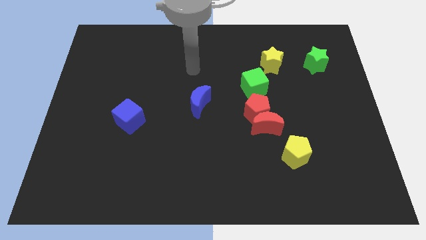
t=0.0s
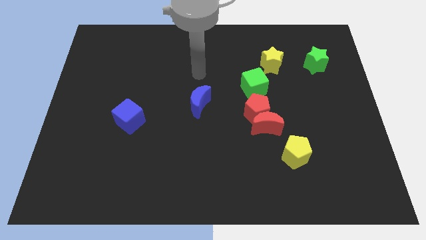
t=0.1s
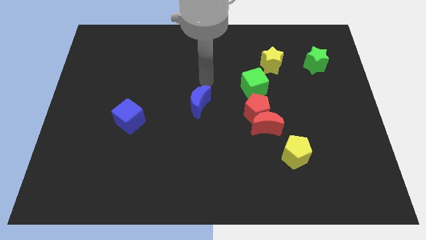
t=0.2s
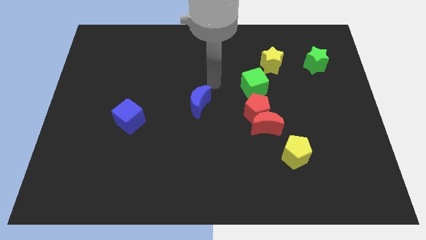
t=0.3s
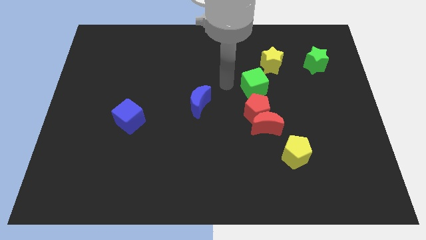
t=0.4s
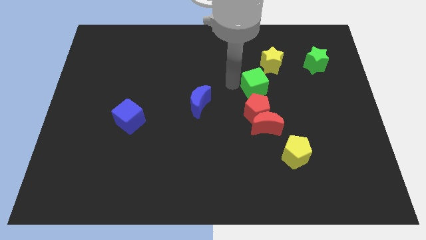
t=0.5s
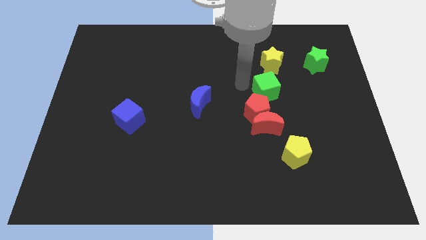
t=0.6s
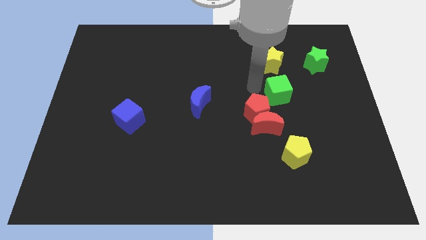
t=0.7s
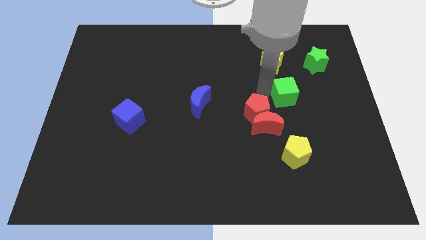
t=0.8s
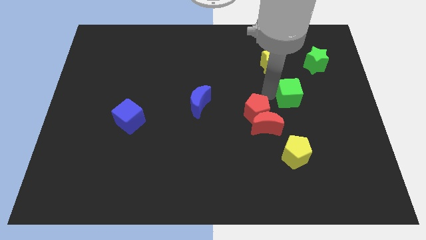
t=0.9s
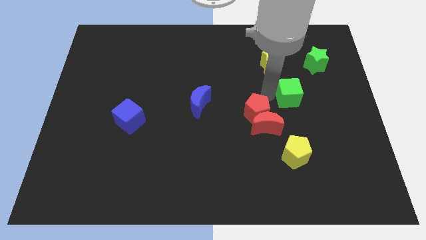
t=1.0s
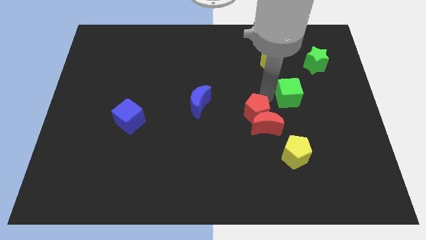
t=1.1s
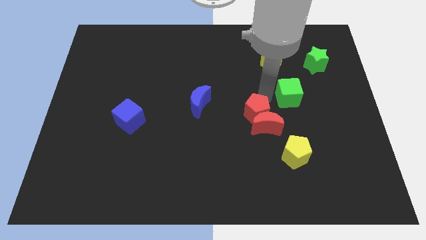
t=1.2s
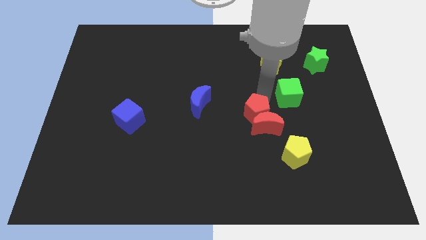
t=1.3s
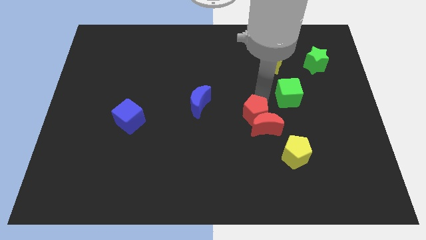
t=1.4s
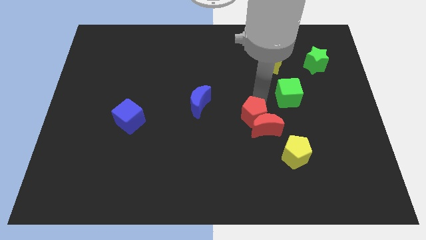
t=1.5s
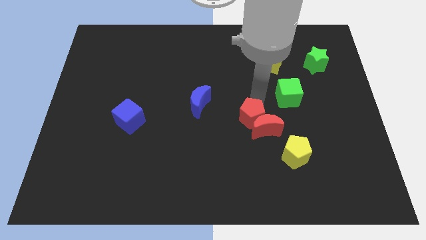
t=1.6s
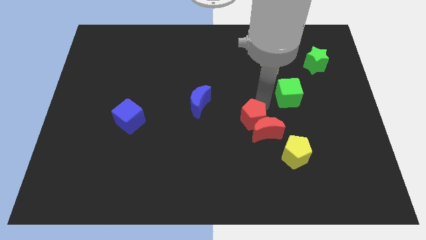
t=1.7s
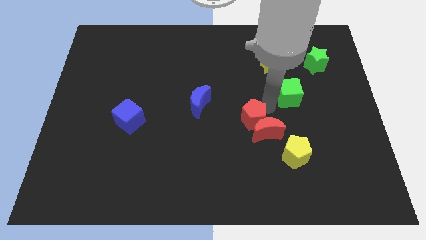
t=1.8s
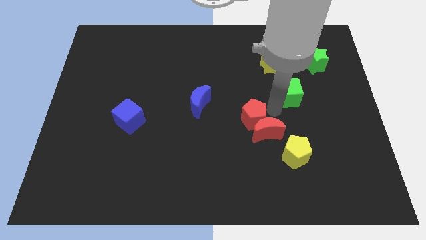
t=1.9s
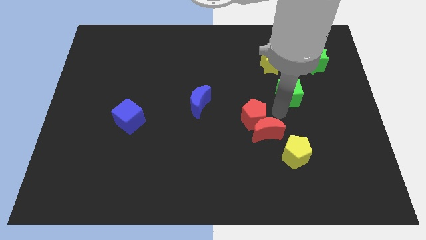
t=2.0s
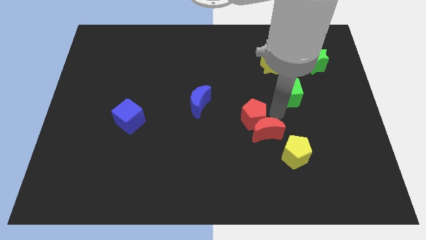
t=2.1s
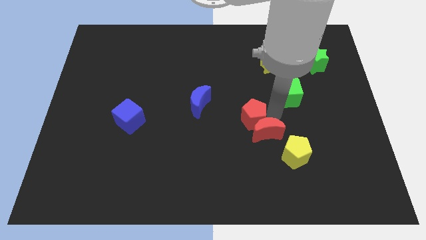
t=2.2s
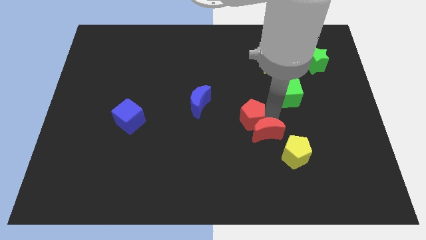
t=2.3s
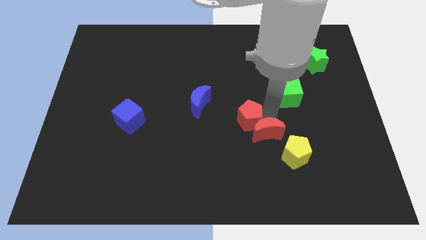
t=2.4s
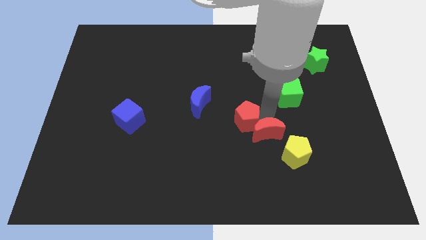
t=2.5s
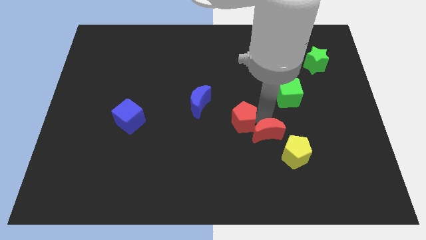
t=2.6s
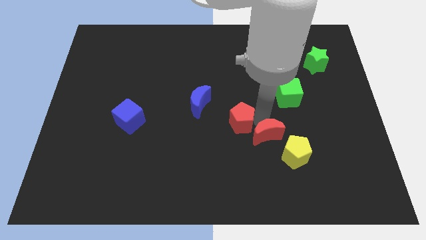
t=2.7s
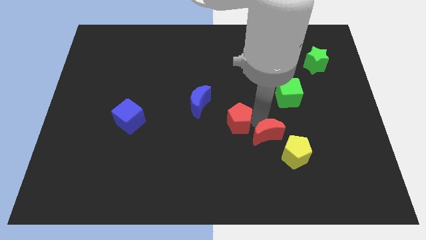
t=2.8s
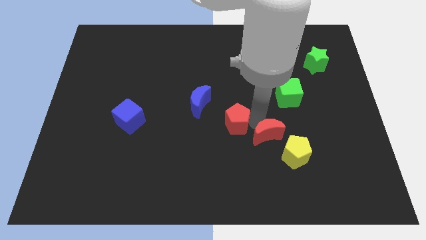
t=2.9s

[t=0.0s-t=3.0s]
pull the red pentagon apart from the red moon and green cube

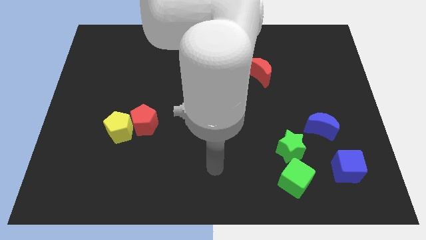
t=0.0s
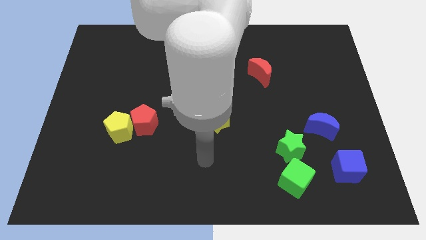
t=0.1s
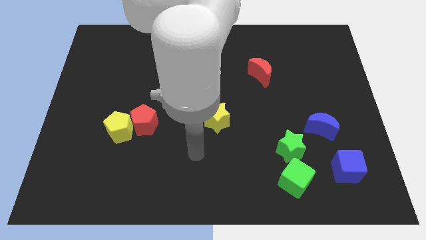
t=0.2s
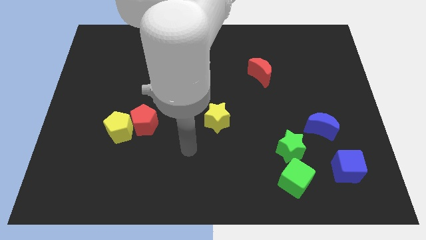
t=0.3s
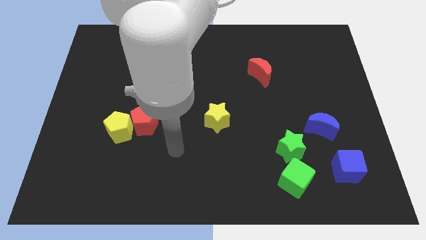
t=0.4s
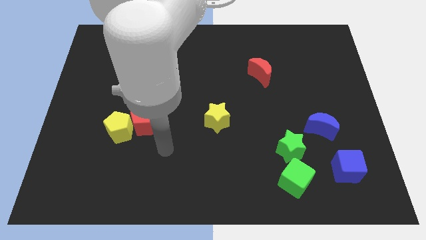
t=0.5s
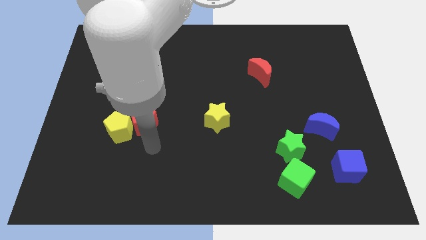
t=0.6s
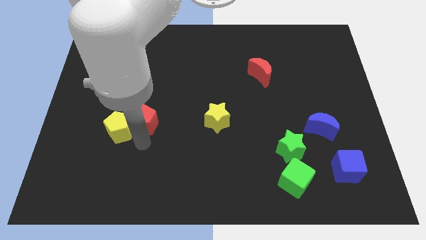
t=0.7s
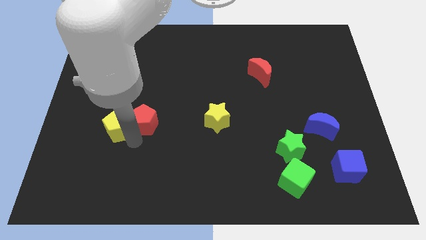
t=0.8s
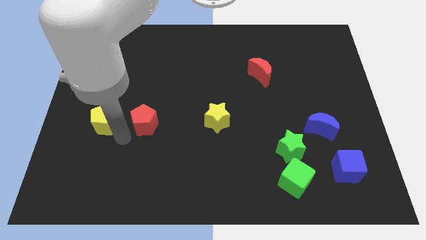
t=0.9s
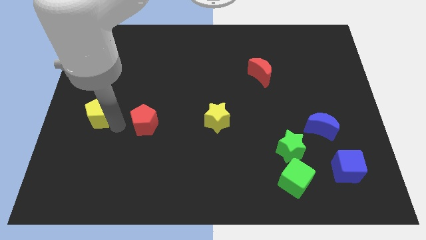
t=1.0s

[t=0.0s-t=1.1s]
pull the red pentagon apart from the yellow pentagon

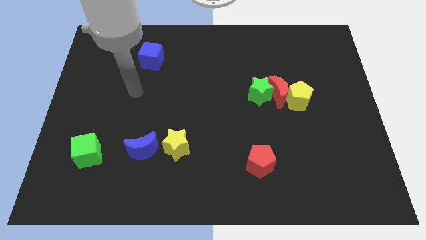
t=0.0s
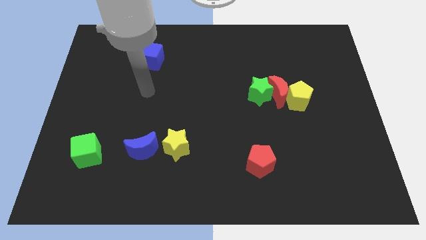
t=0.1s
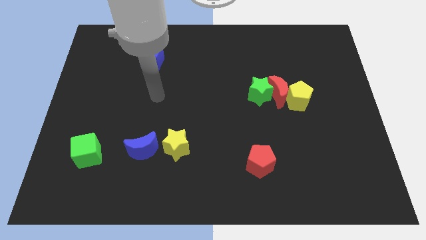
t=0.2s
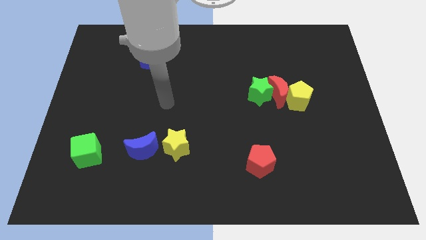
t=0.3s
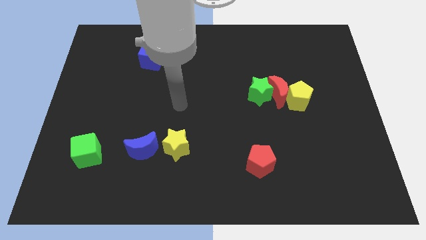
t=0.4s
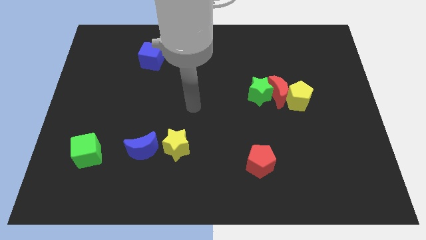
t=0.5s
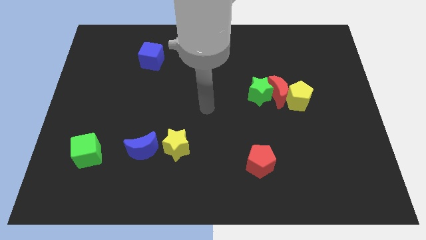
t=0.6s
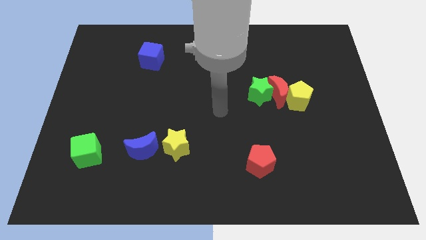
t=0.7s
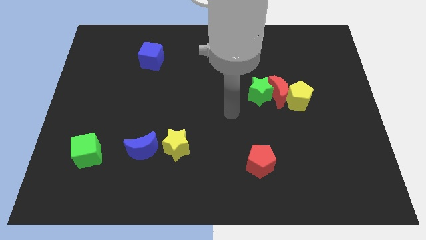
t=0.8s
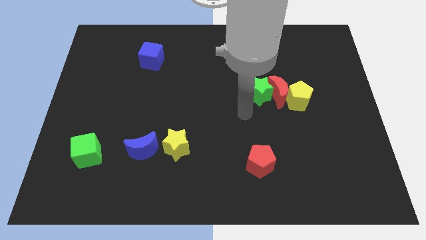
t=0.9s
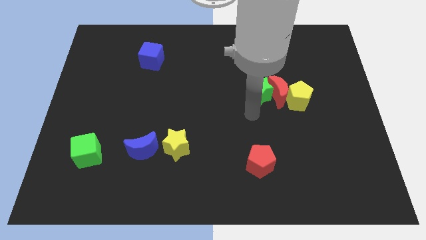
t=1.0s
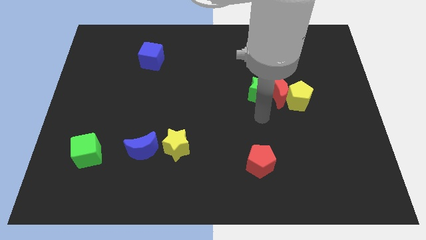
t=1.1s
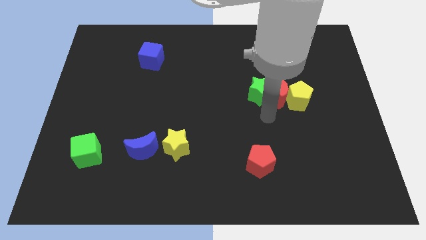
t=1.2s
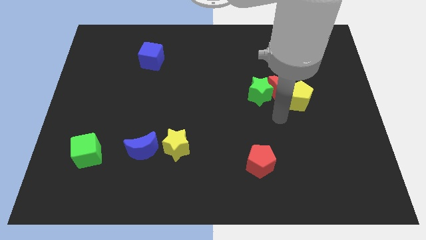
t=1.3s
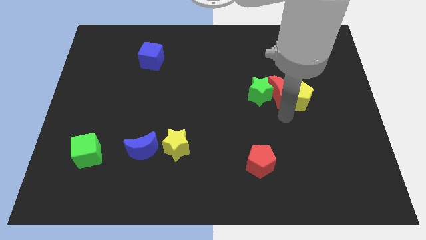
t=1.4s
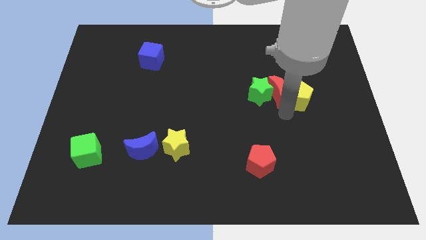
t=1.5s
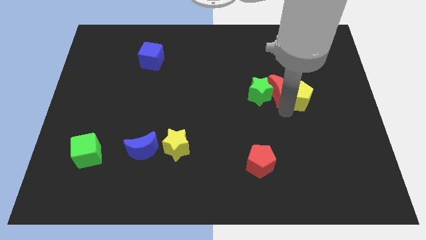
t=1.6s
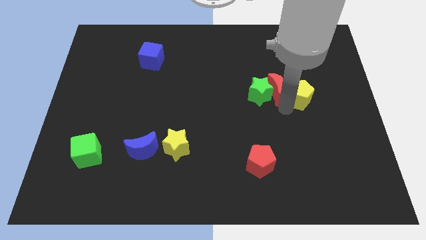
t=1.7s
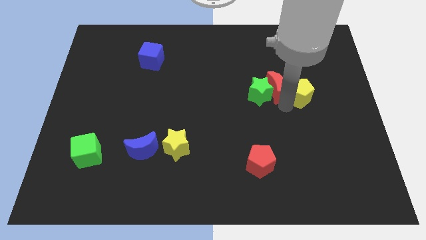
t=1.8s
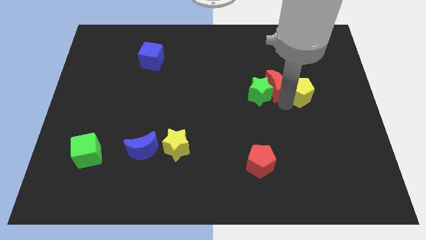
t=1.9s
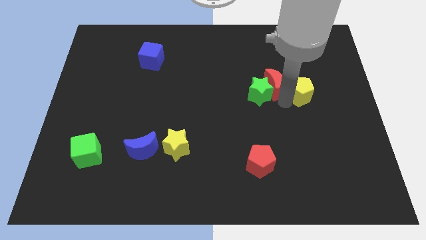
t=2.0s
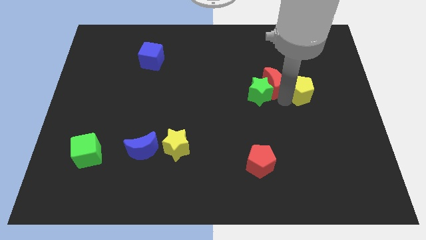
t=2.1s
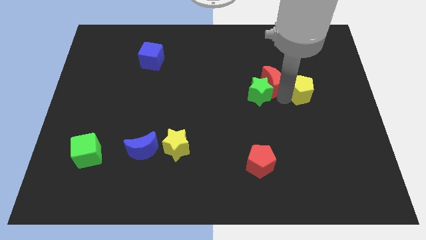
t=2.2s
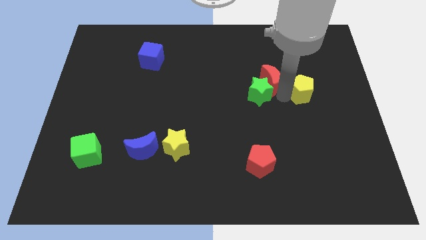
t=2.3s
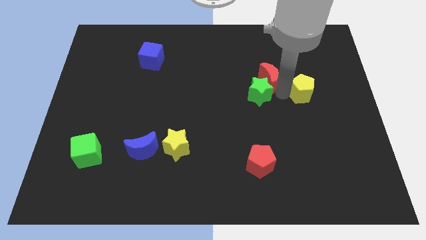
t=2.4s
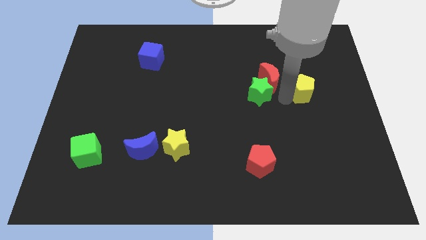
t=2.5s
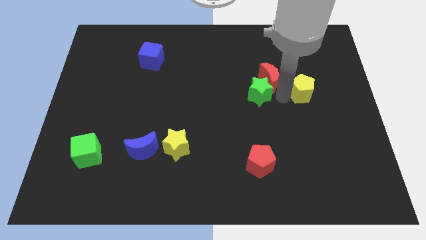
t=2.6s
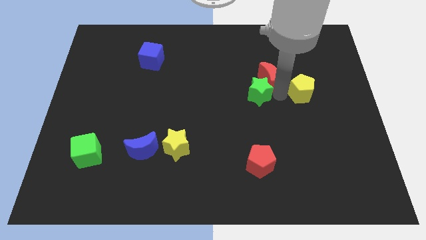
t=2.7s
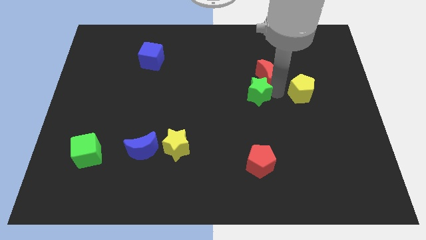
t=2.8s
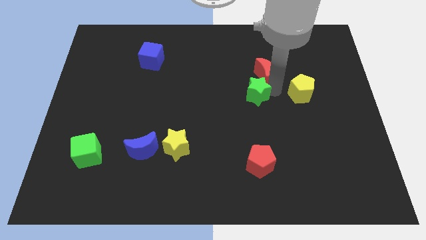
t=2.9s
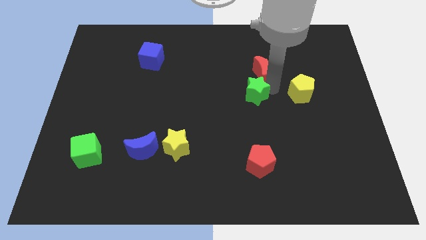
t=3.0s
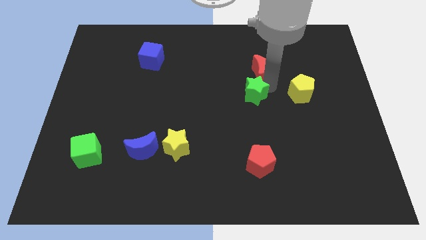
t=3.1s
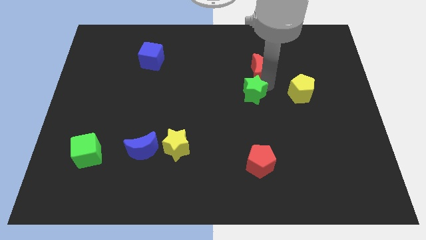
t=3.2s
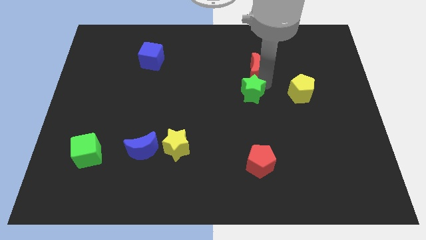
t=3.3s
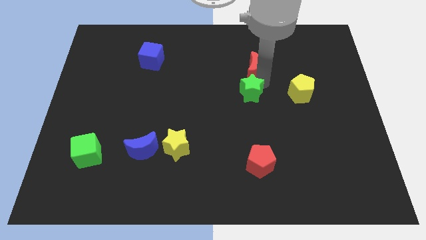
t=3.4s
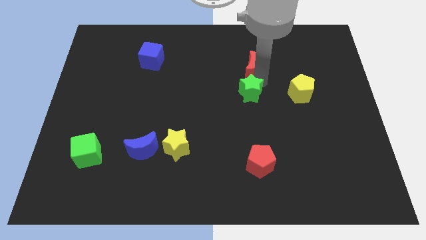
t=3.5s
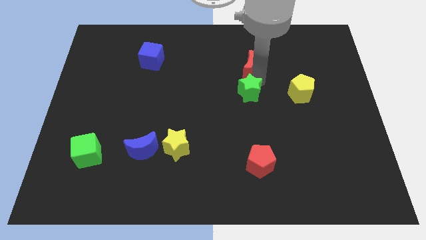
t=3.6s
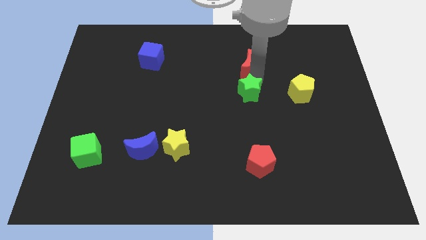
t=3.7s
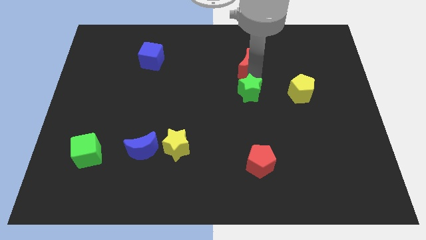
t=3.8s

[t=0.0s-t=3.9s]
separate the red moon from the green star and yellow pentagon

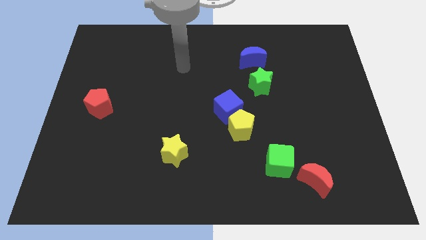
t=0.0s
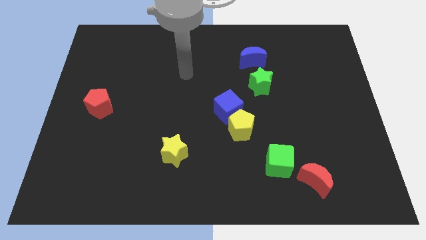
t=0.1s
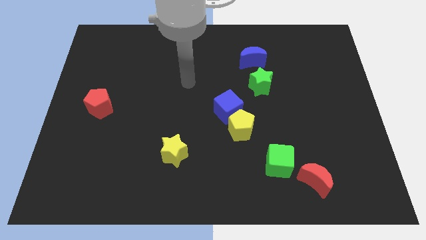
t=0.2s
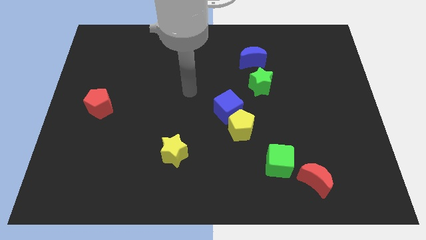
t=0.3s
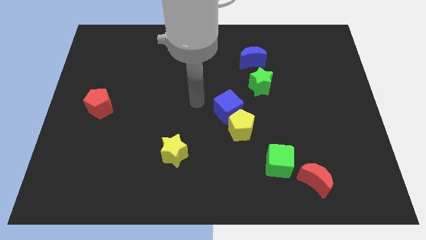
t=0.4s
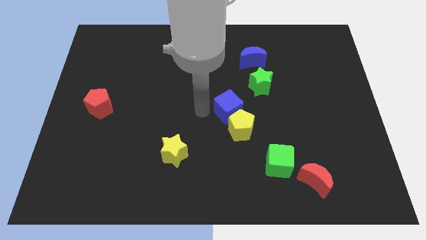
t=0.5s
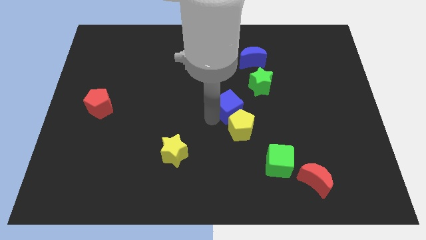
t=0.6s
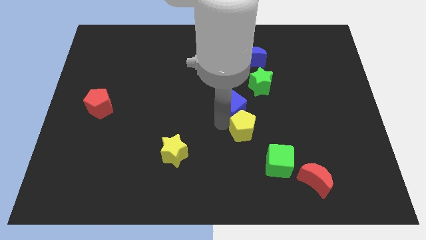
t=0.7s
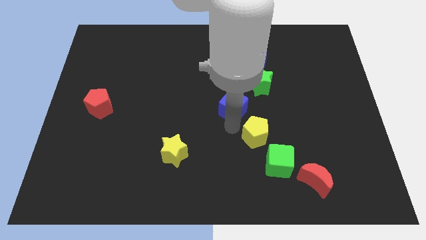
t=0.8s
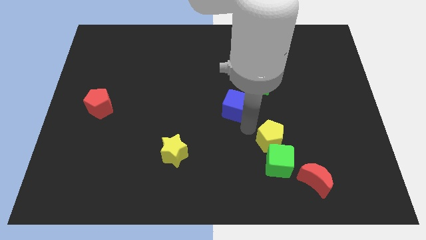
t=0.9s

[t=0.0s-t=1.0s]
separate the blue cube from the yellow pentagon

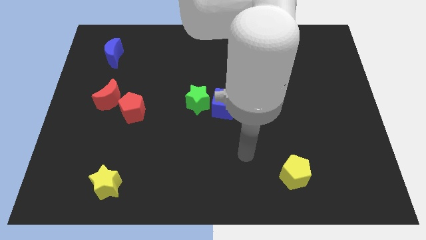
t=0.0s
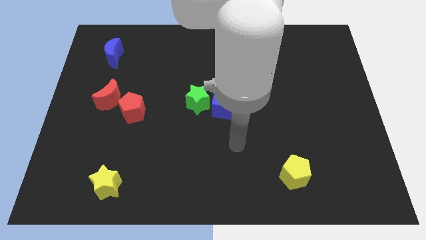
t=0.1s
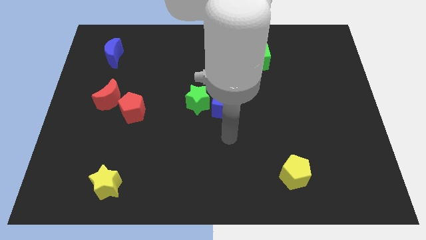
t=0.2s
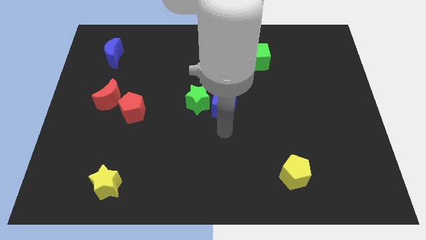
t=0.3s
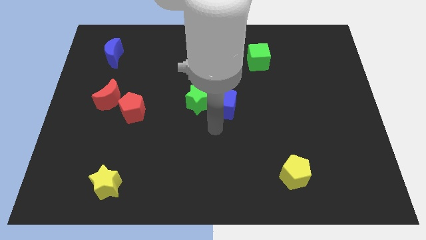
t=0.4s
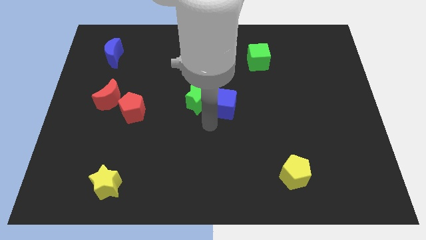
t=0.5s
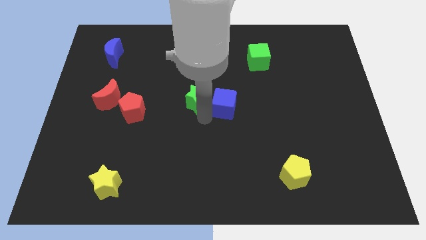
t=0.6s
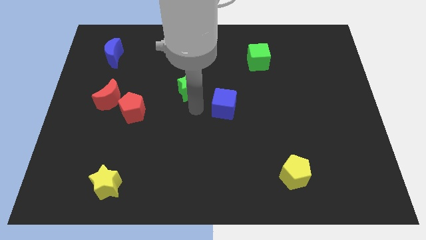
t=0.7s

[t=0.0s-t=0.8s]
pull the blue cube apart from the green star
